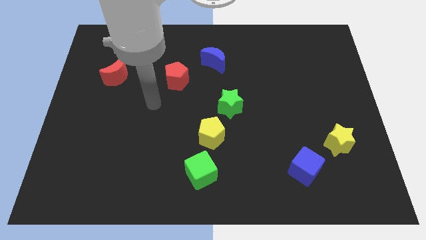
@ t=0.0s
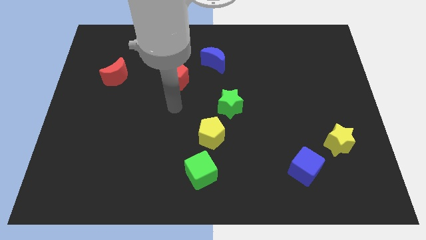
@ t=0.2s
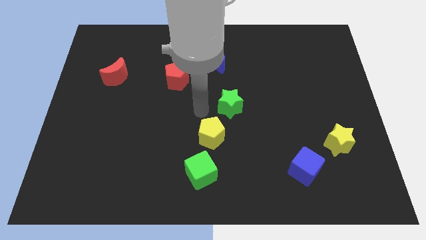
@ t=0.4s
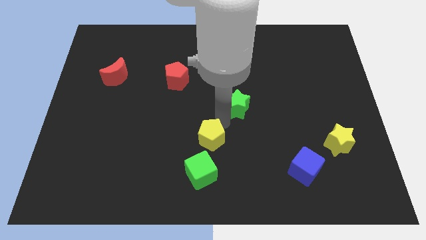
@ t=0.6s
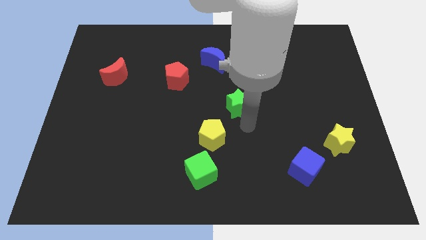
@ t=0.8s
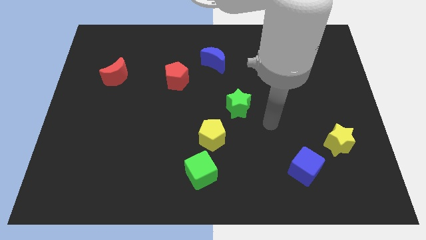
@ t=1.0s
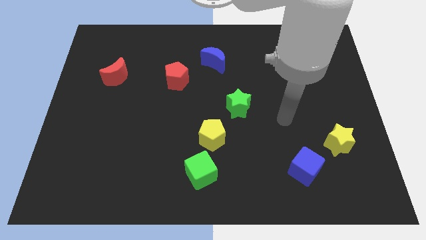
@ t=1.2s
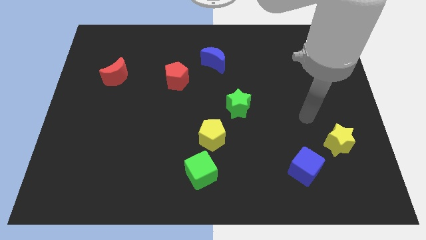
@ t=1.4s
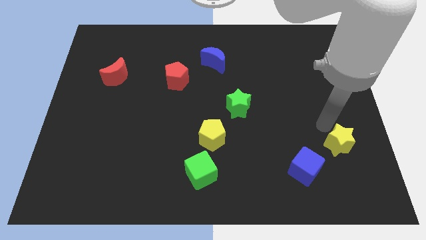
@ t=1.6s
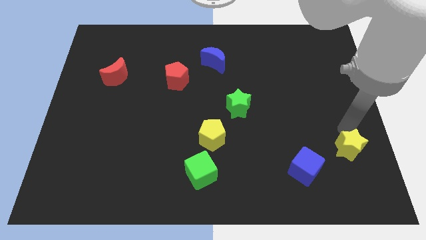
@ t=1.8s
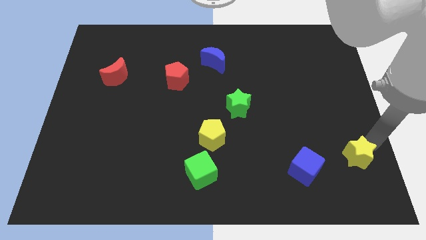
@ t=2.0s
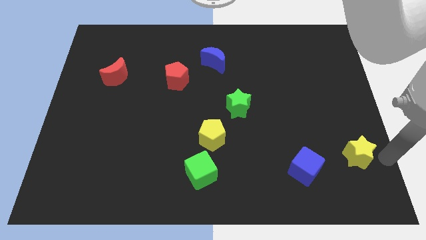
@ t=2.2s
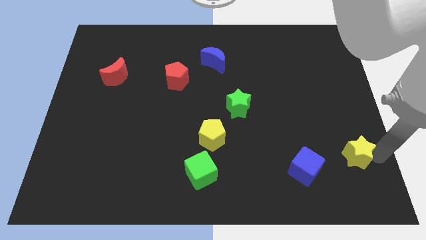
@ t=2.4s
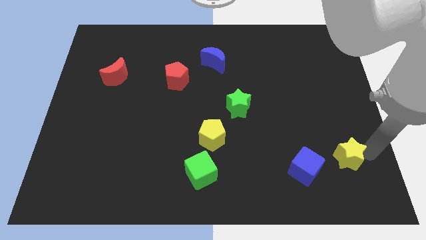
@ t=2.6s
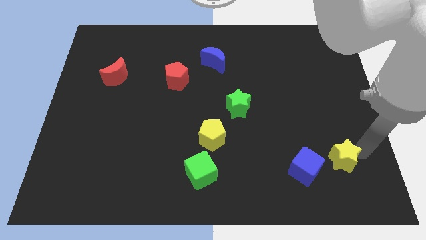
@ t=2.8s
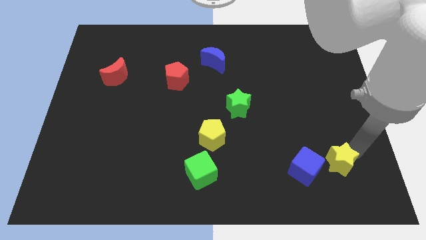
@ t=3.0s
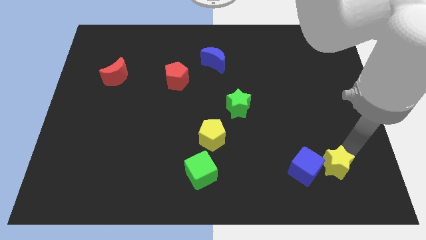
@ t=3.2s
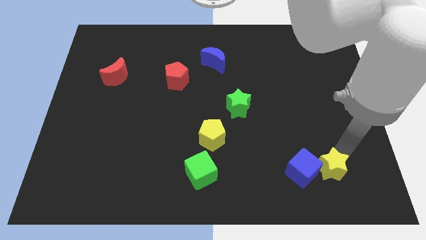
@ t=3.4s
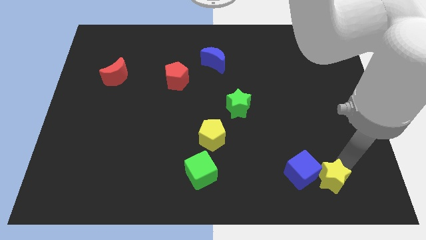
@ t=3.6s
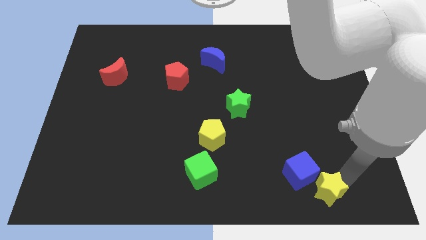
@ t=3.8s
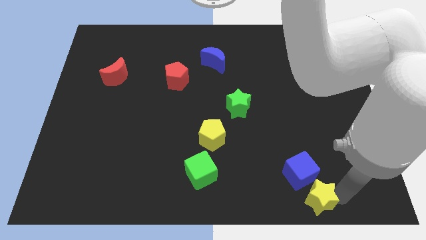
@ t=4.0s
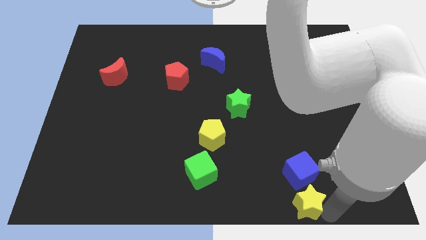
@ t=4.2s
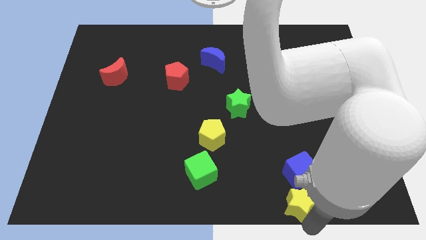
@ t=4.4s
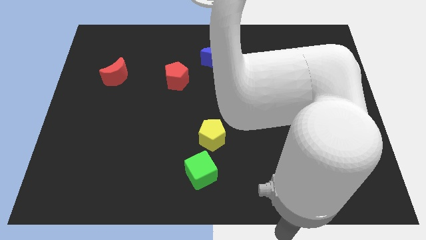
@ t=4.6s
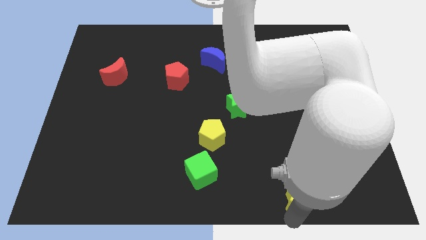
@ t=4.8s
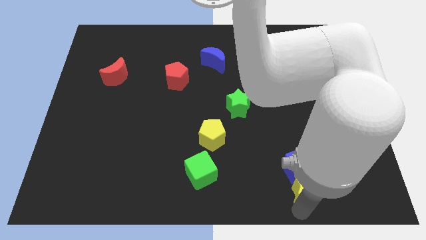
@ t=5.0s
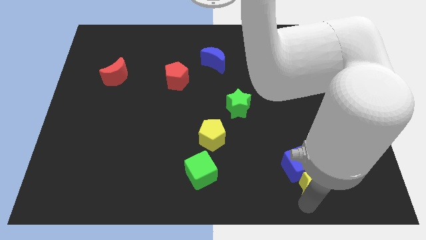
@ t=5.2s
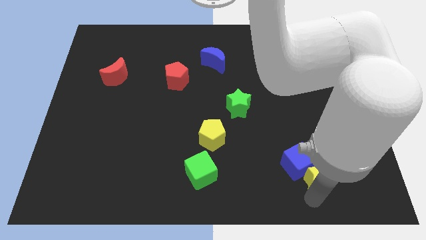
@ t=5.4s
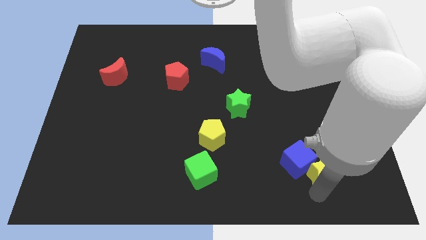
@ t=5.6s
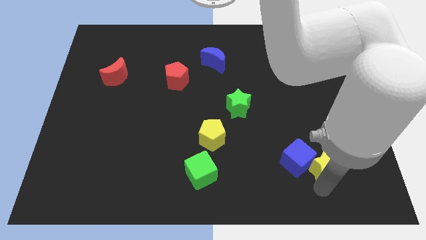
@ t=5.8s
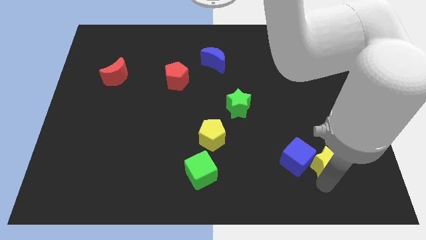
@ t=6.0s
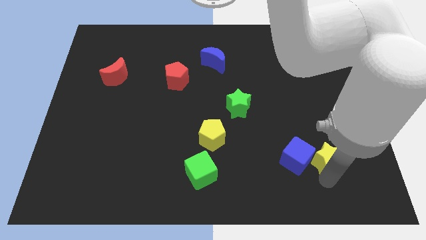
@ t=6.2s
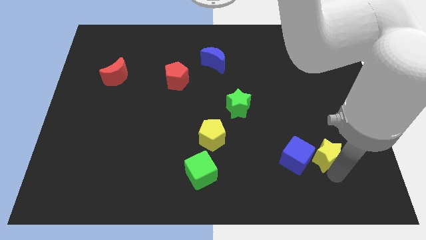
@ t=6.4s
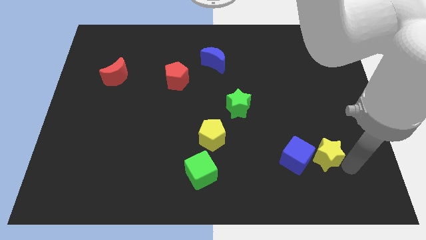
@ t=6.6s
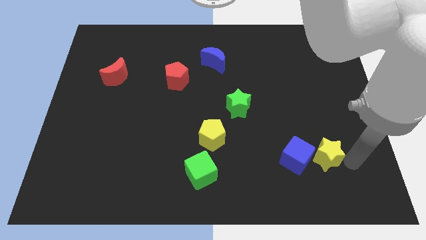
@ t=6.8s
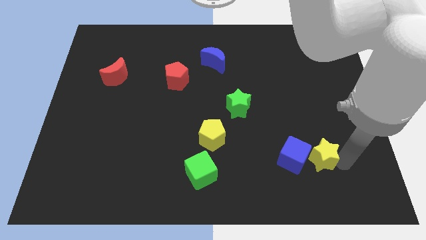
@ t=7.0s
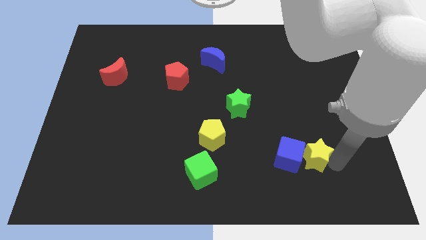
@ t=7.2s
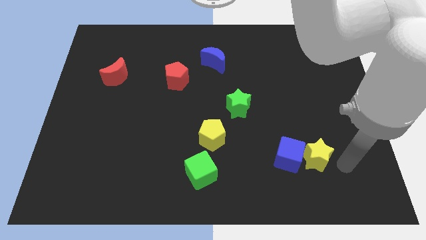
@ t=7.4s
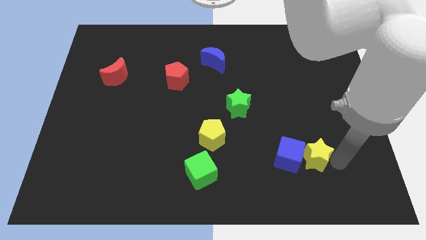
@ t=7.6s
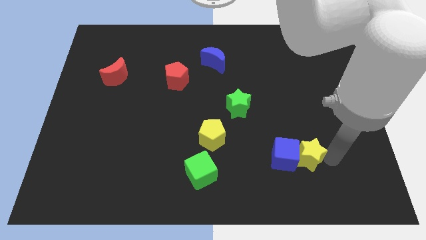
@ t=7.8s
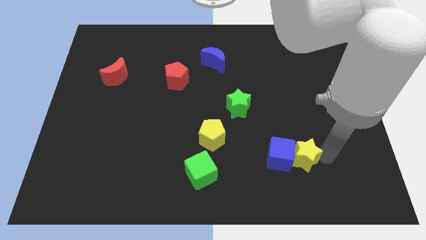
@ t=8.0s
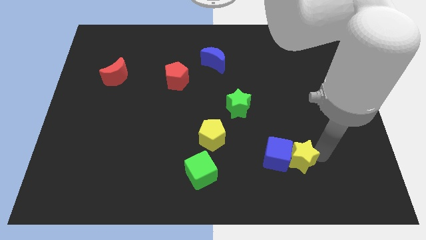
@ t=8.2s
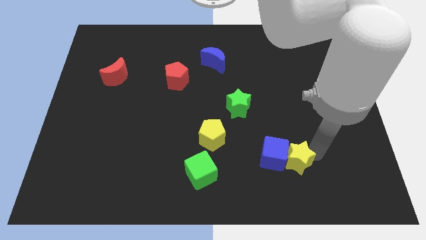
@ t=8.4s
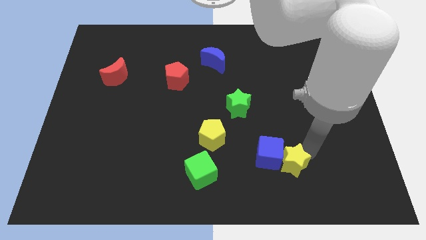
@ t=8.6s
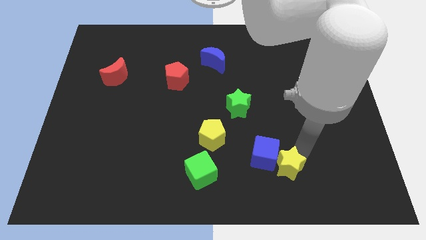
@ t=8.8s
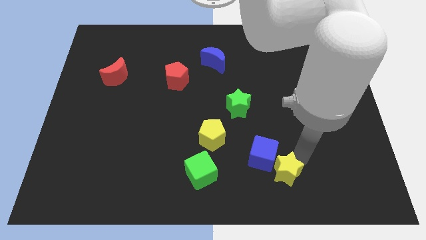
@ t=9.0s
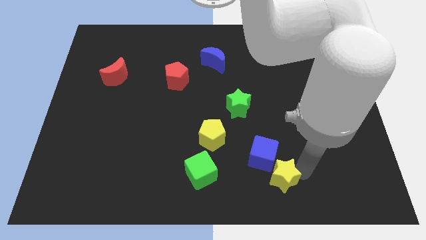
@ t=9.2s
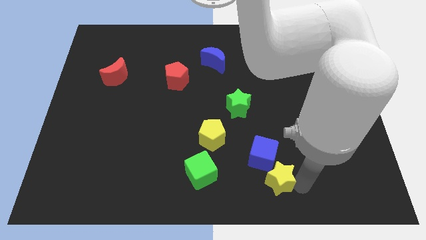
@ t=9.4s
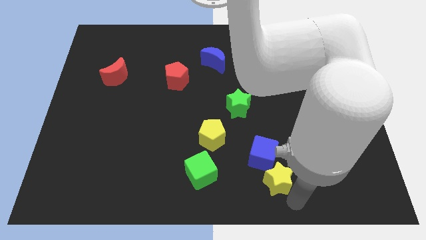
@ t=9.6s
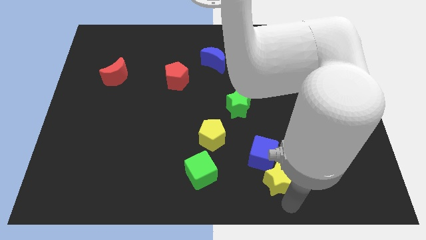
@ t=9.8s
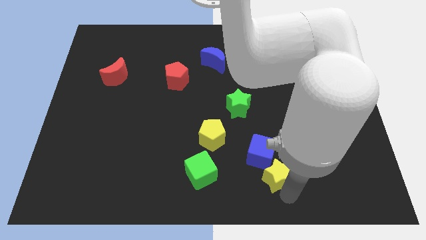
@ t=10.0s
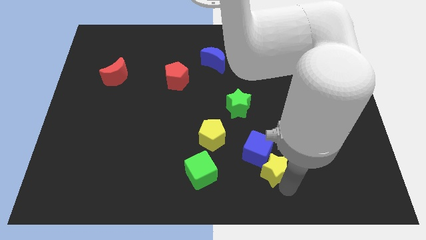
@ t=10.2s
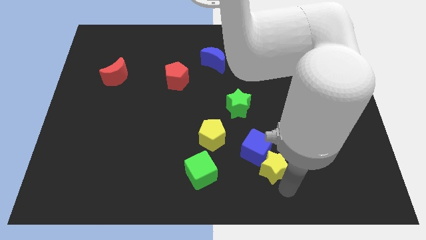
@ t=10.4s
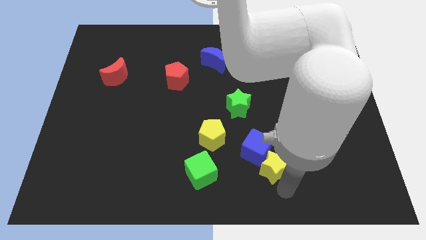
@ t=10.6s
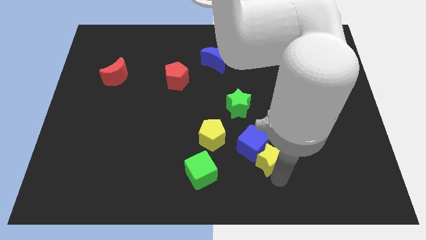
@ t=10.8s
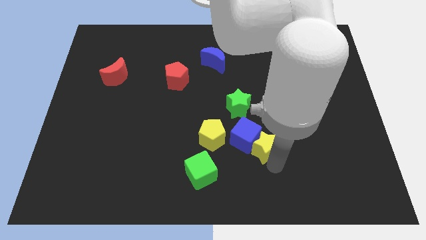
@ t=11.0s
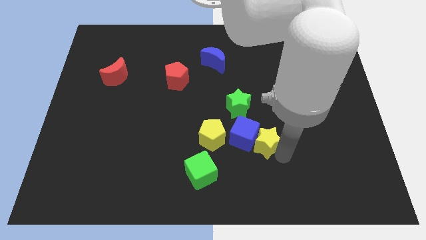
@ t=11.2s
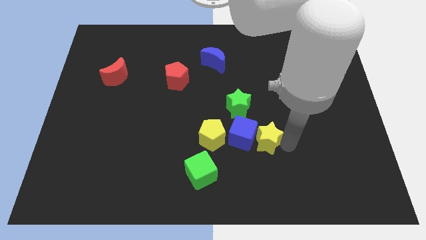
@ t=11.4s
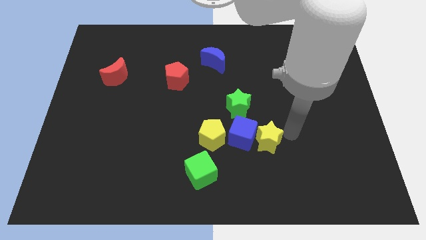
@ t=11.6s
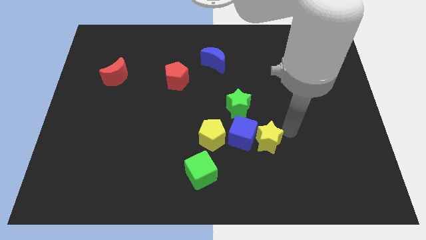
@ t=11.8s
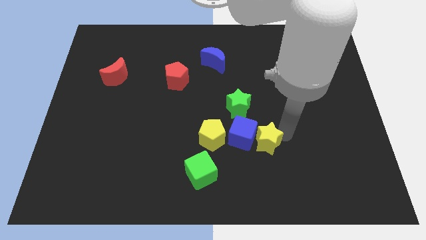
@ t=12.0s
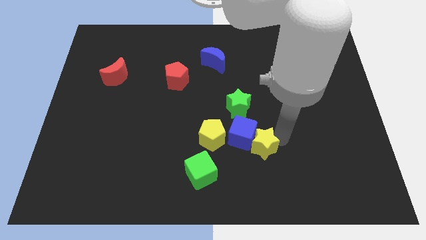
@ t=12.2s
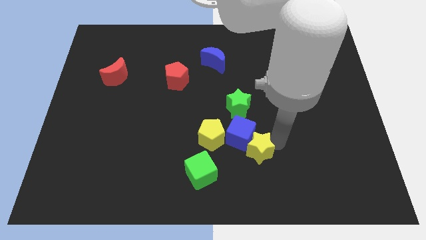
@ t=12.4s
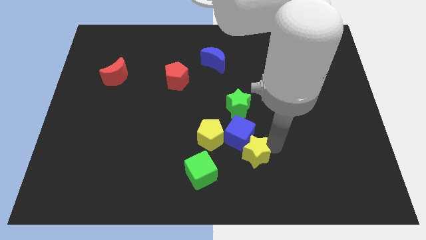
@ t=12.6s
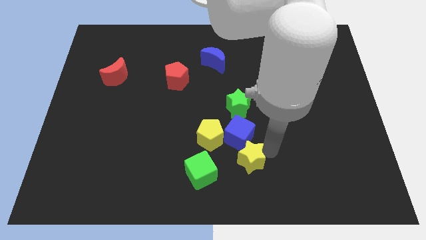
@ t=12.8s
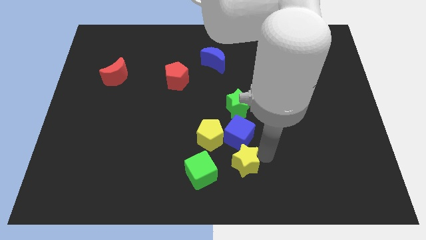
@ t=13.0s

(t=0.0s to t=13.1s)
push the yellow star to the left

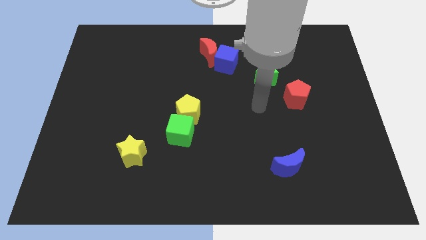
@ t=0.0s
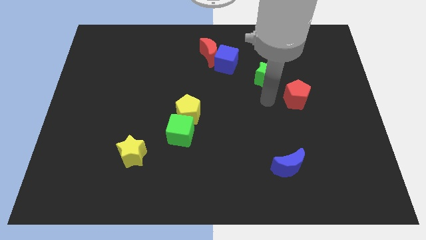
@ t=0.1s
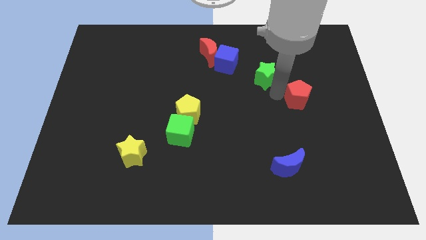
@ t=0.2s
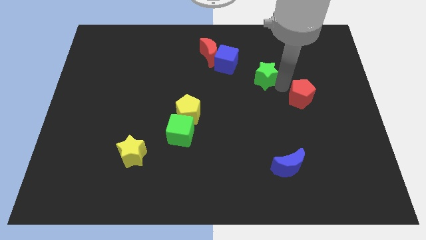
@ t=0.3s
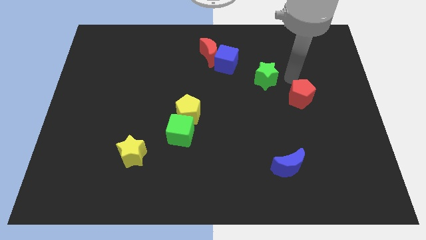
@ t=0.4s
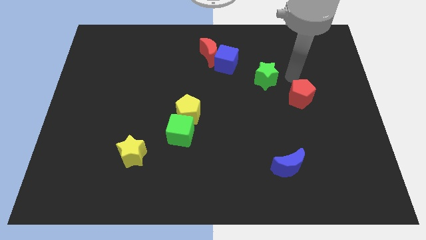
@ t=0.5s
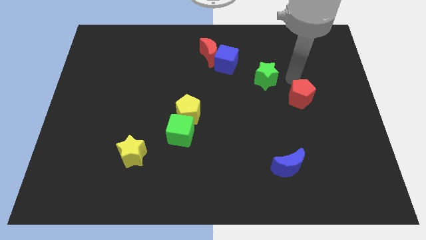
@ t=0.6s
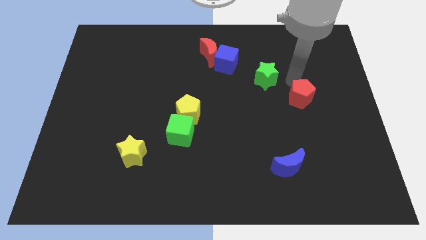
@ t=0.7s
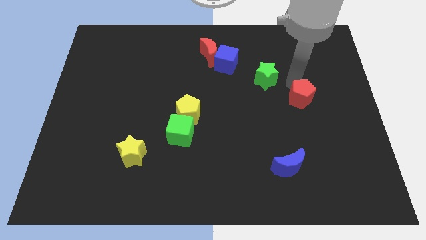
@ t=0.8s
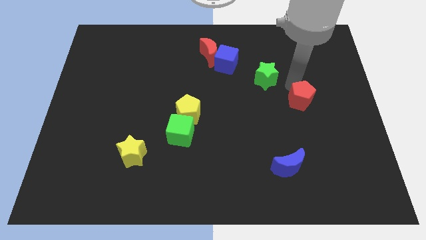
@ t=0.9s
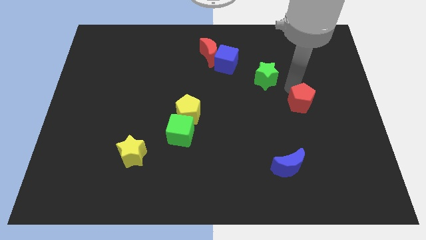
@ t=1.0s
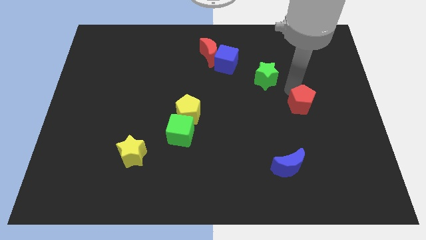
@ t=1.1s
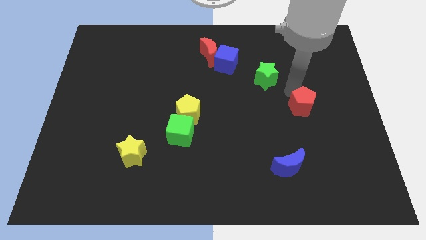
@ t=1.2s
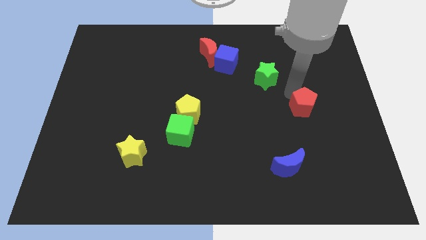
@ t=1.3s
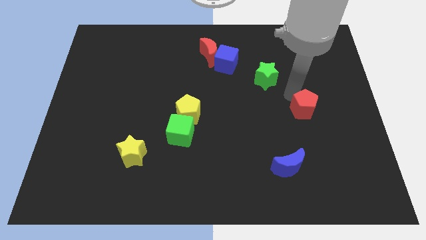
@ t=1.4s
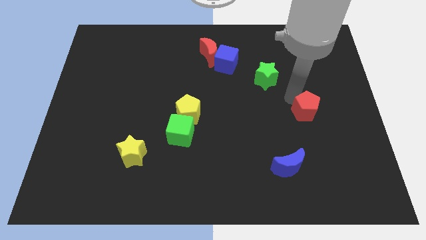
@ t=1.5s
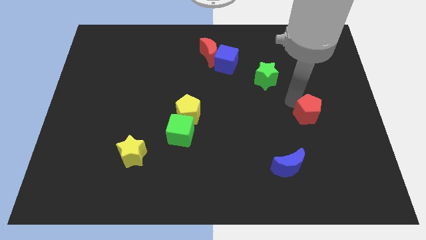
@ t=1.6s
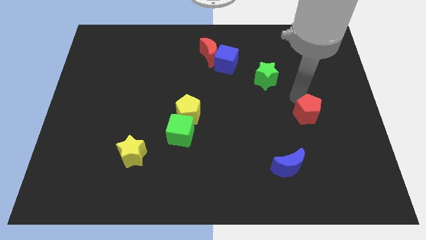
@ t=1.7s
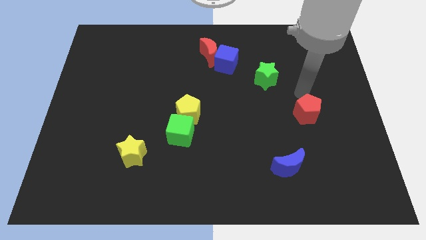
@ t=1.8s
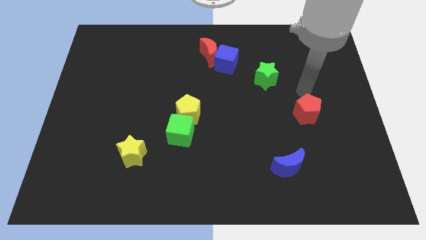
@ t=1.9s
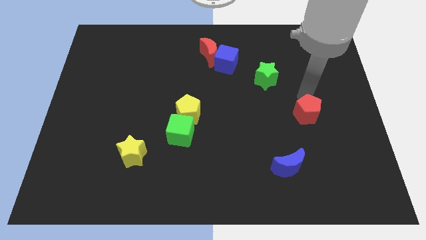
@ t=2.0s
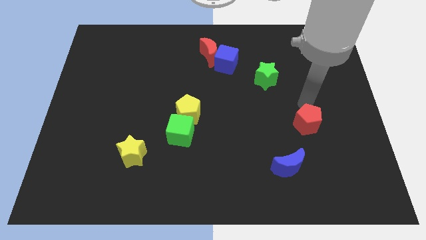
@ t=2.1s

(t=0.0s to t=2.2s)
slightly move the red pentagon downwards
